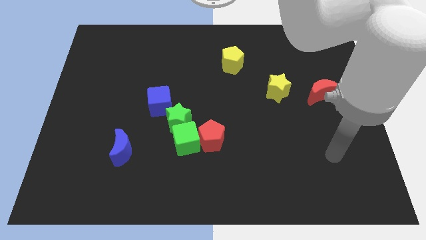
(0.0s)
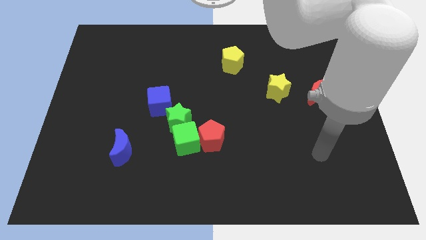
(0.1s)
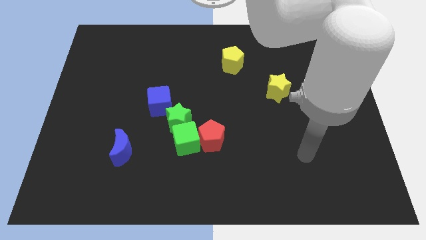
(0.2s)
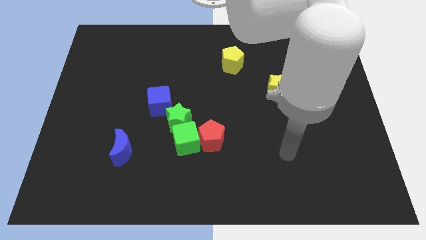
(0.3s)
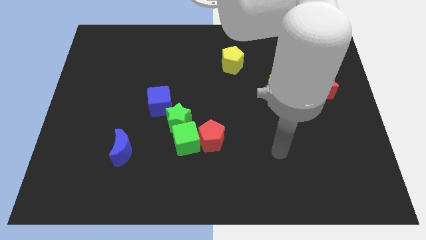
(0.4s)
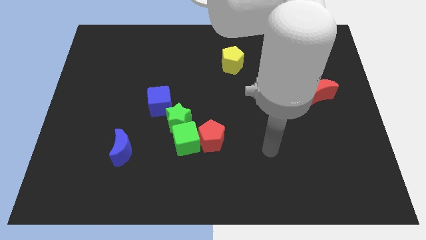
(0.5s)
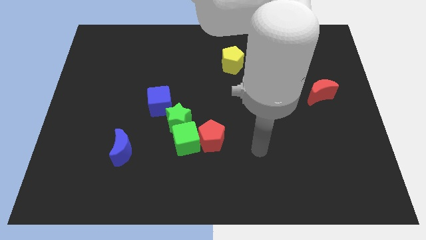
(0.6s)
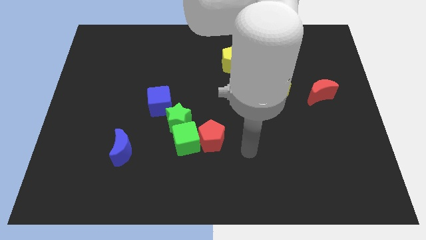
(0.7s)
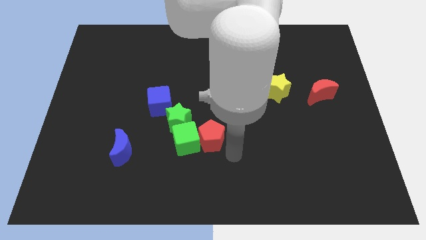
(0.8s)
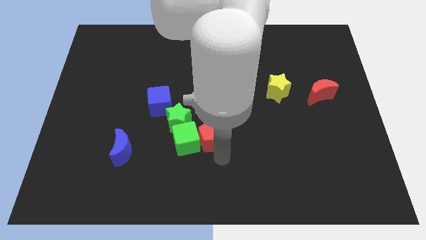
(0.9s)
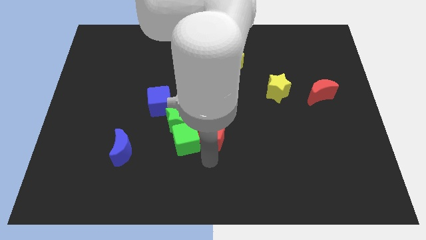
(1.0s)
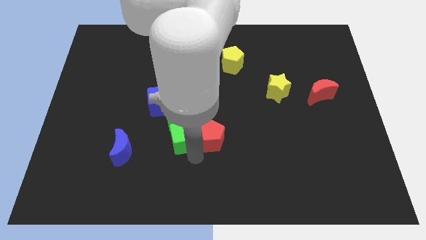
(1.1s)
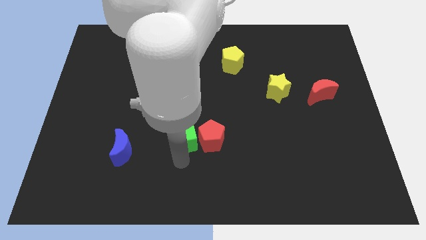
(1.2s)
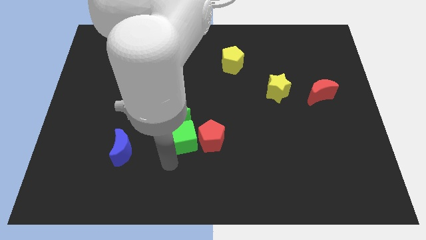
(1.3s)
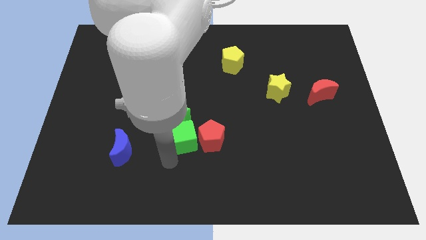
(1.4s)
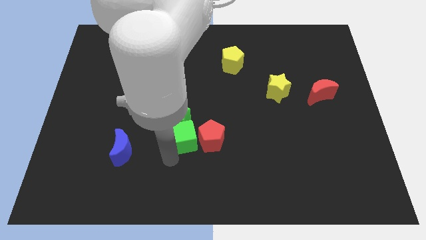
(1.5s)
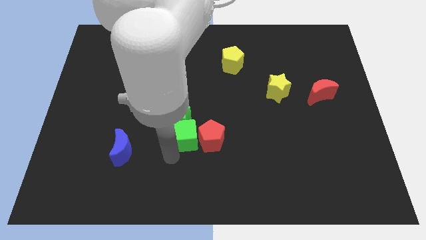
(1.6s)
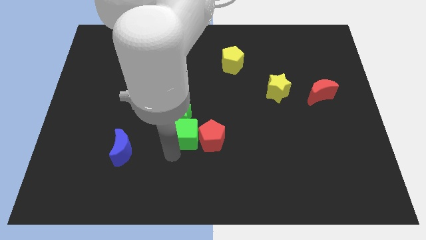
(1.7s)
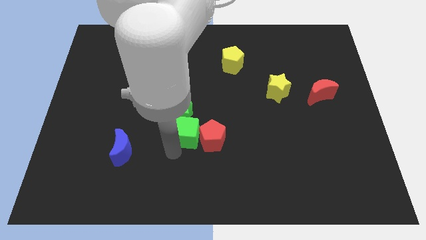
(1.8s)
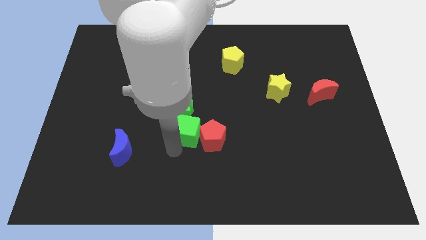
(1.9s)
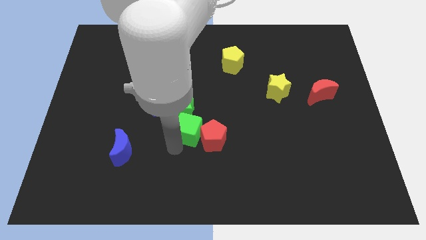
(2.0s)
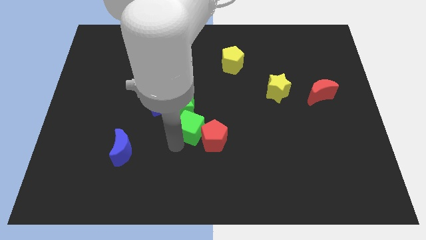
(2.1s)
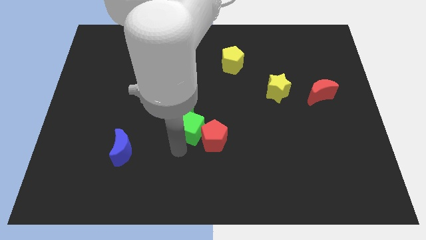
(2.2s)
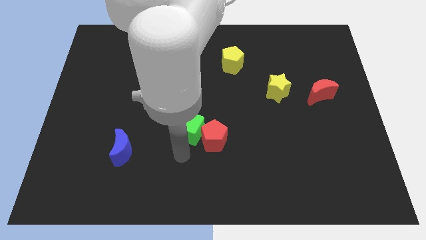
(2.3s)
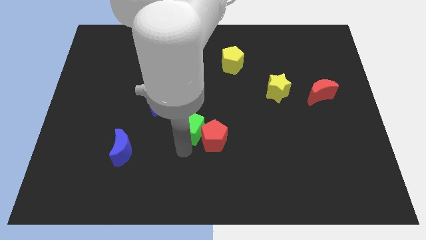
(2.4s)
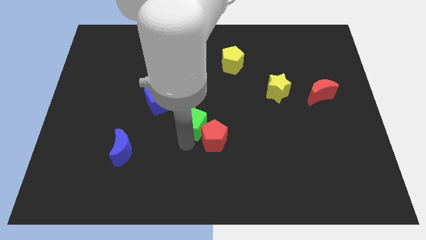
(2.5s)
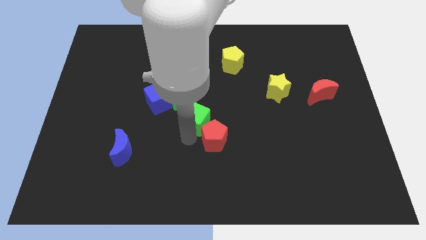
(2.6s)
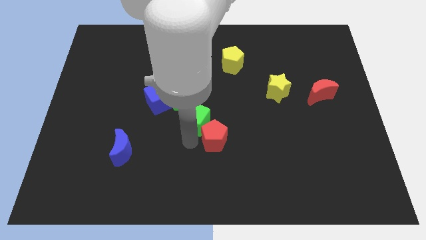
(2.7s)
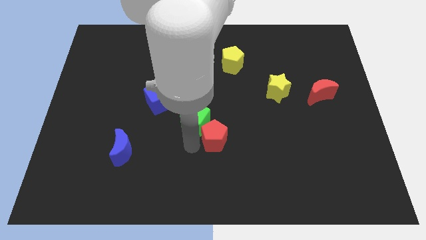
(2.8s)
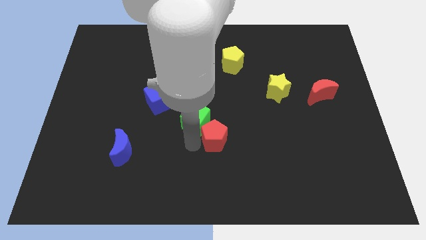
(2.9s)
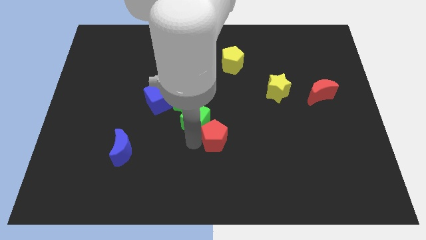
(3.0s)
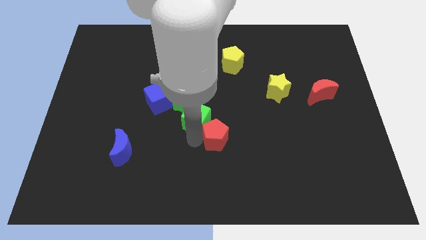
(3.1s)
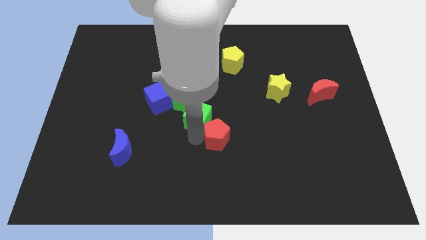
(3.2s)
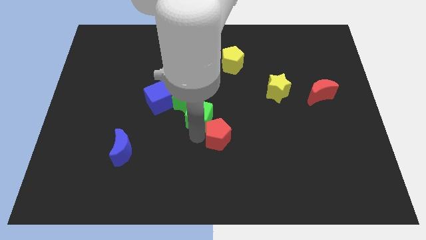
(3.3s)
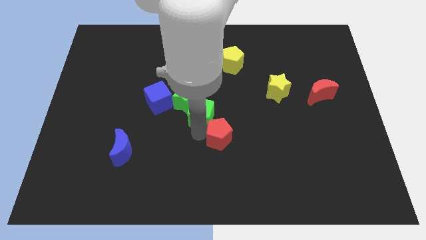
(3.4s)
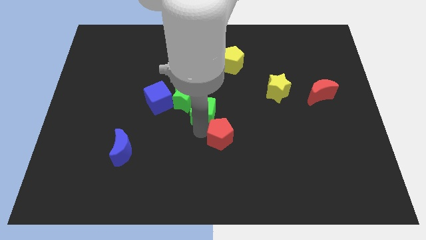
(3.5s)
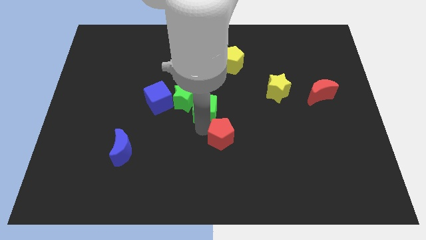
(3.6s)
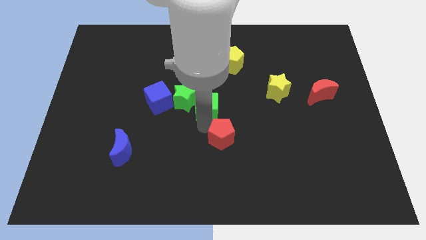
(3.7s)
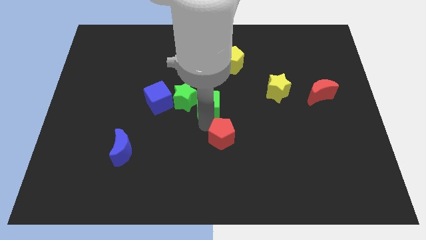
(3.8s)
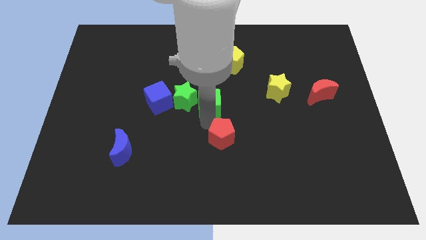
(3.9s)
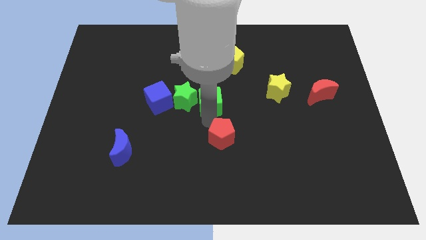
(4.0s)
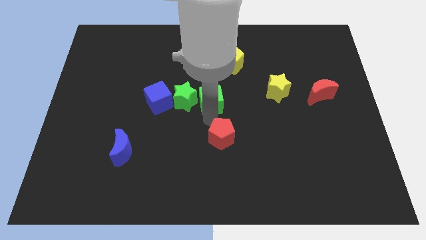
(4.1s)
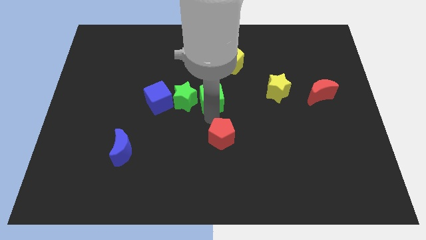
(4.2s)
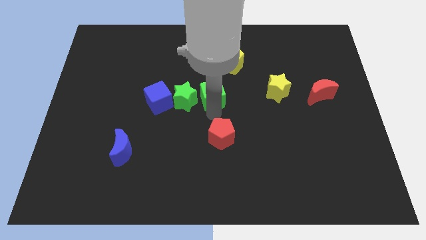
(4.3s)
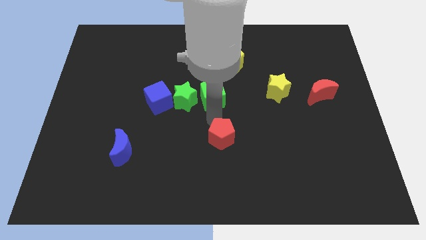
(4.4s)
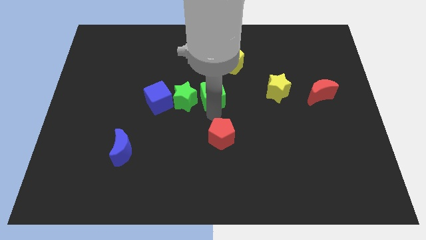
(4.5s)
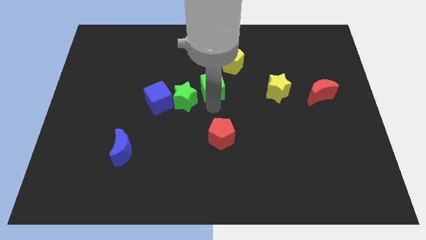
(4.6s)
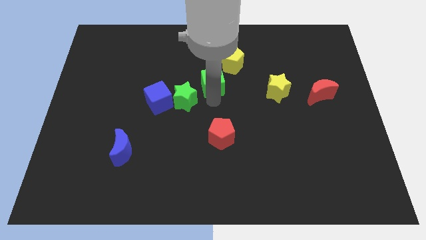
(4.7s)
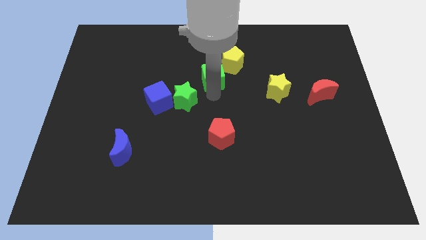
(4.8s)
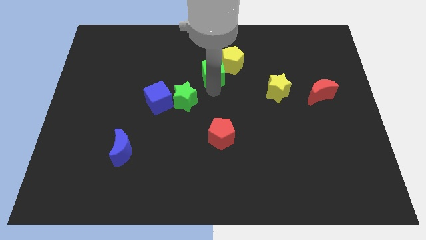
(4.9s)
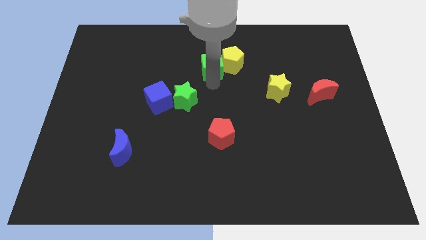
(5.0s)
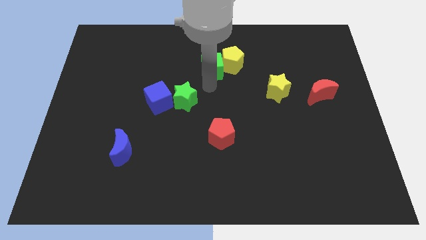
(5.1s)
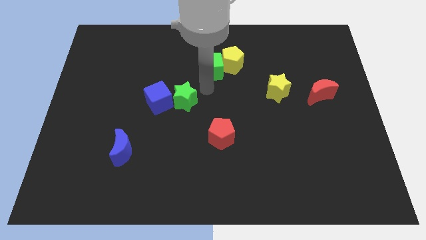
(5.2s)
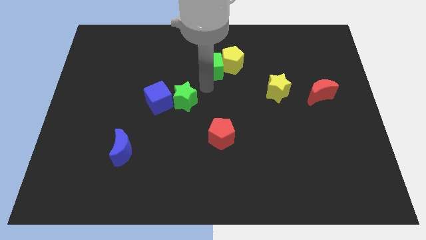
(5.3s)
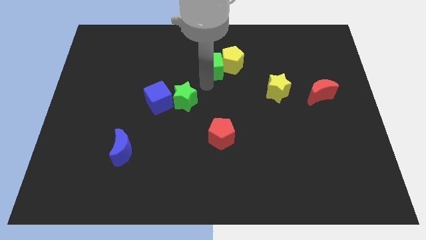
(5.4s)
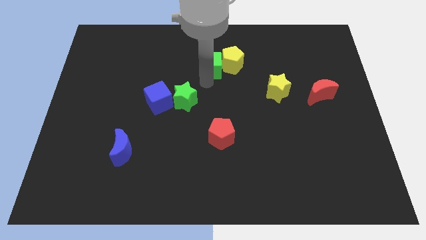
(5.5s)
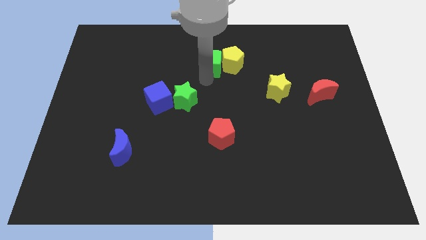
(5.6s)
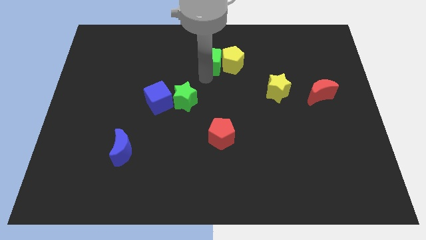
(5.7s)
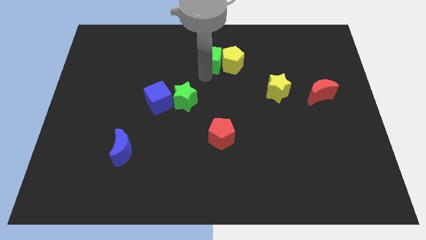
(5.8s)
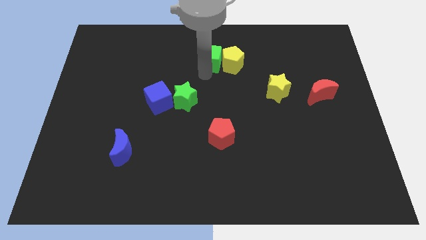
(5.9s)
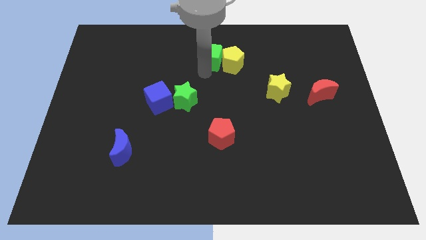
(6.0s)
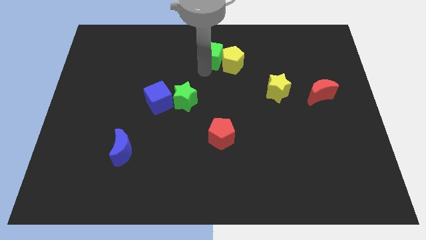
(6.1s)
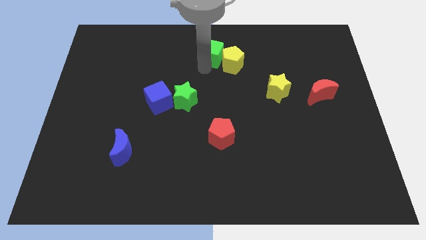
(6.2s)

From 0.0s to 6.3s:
push the green cube to the towards your base
